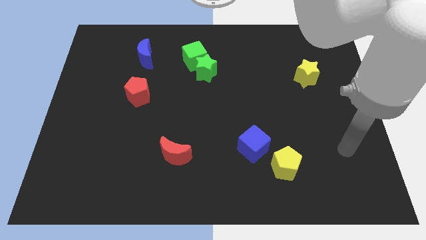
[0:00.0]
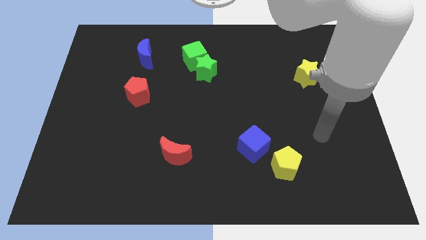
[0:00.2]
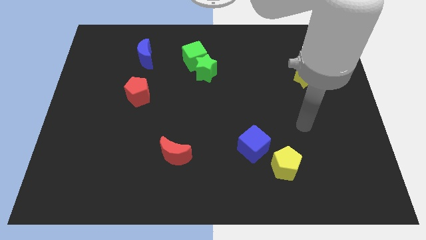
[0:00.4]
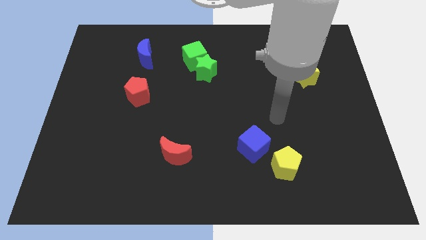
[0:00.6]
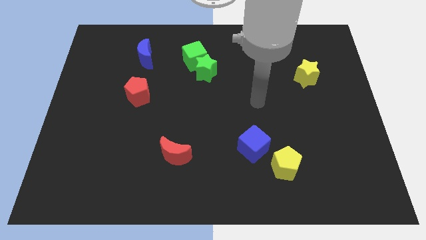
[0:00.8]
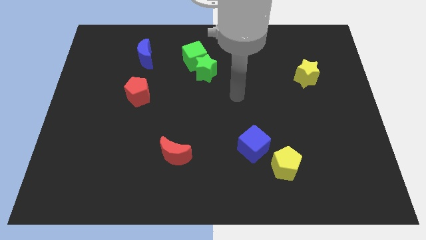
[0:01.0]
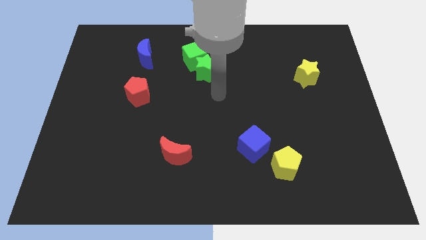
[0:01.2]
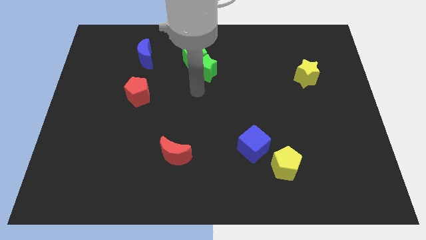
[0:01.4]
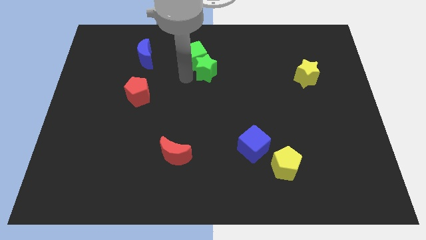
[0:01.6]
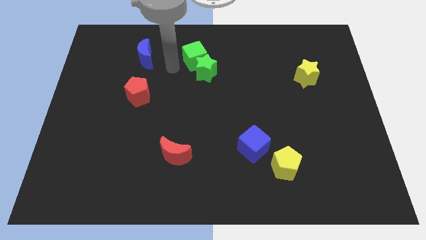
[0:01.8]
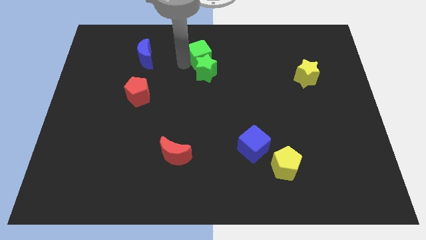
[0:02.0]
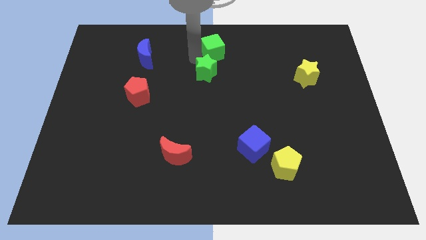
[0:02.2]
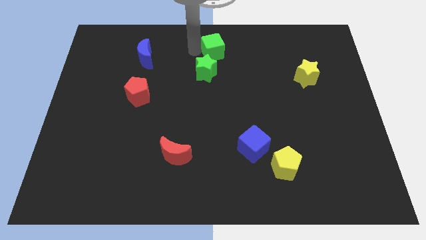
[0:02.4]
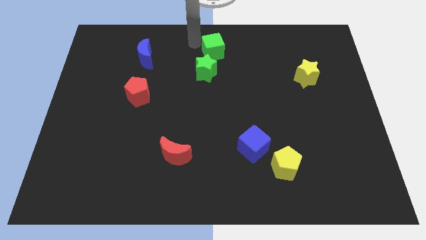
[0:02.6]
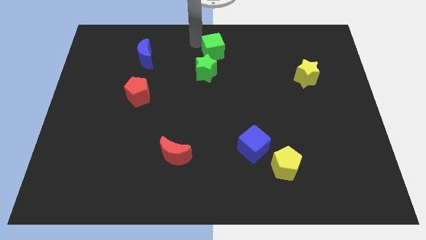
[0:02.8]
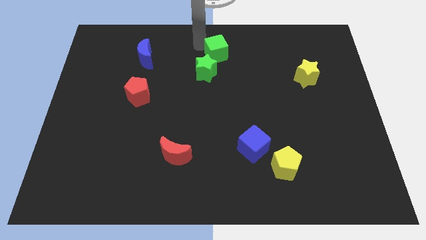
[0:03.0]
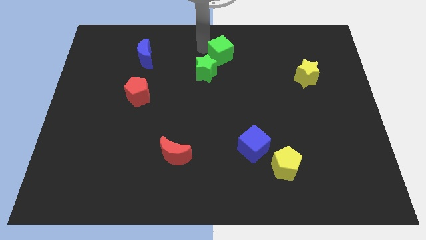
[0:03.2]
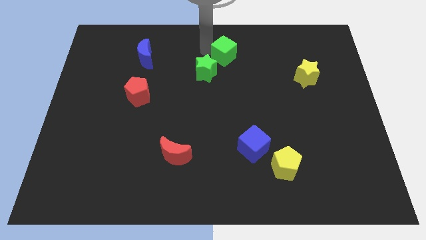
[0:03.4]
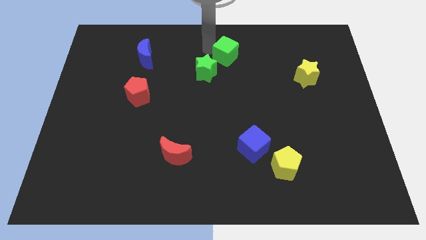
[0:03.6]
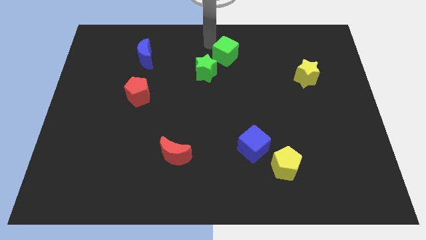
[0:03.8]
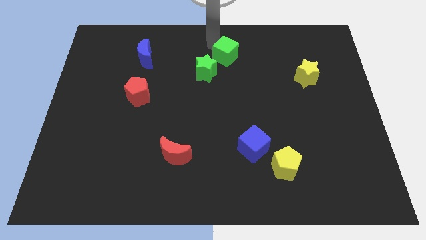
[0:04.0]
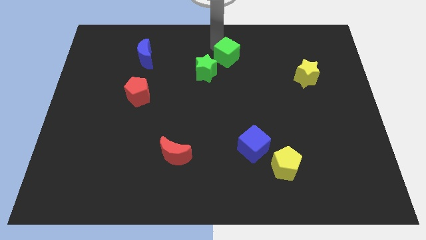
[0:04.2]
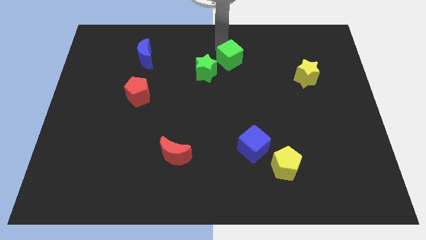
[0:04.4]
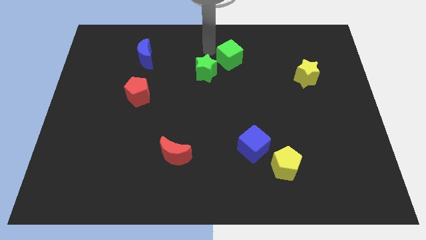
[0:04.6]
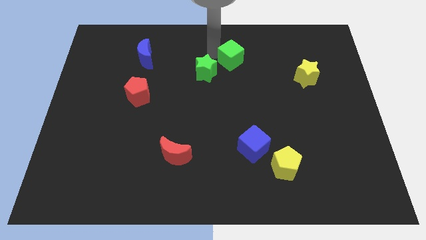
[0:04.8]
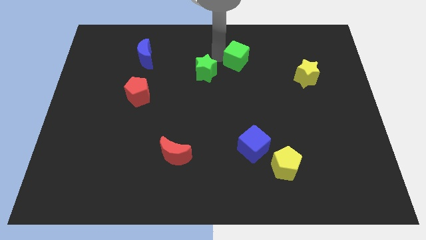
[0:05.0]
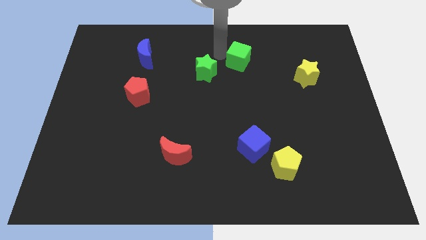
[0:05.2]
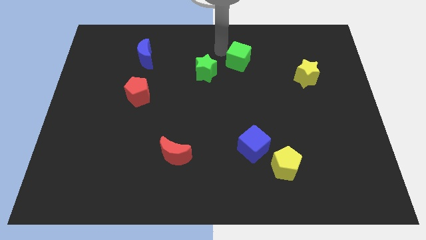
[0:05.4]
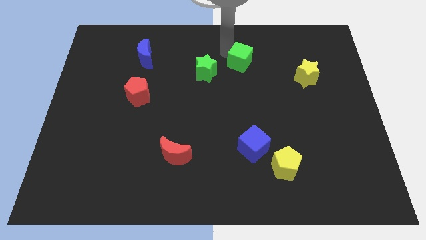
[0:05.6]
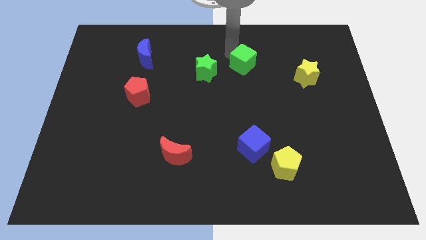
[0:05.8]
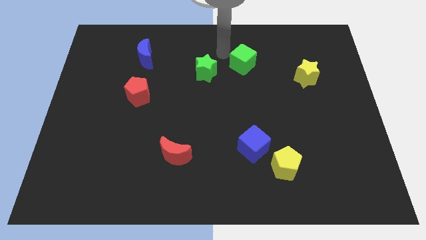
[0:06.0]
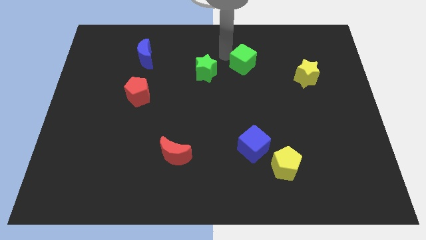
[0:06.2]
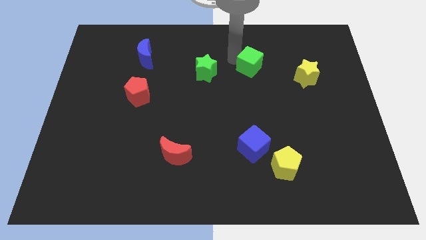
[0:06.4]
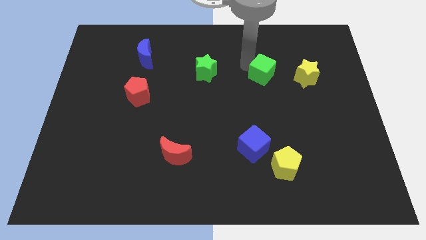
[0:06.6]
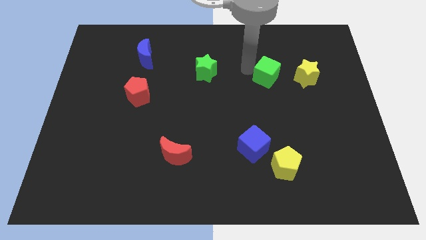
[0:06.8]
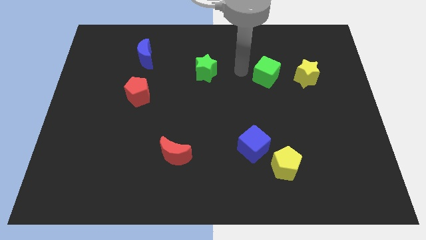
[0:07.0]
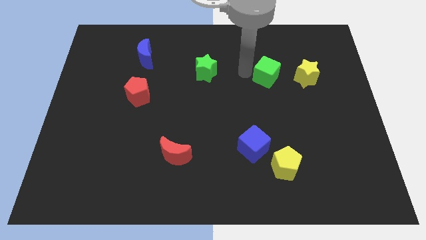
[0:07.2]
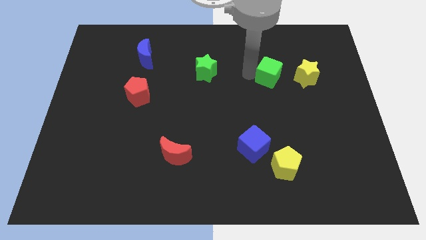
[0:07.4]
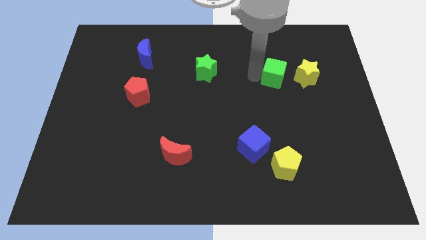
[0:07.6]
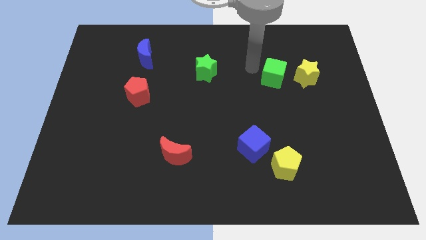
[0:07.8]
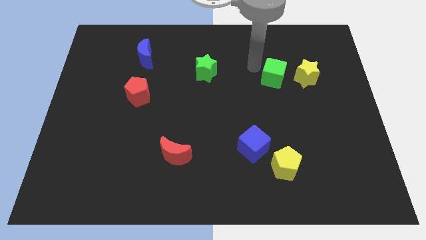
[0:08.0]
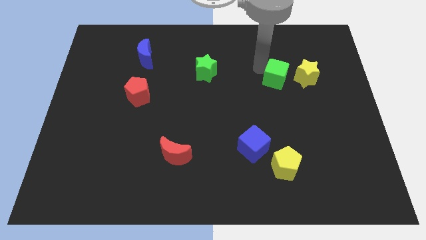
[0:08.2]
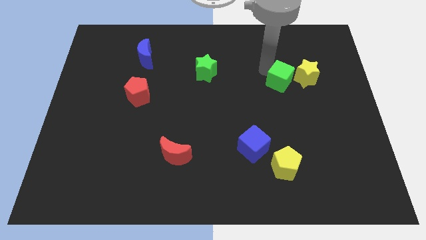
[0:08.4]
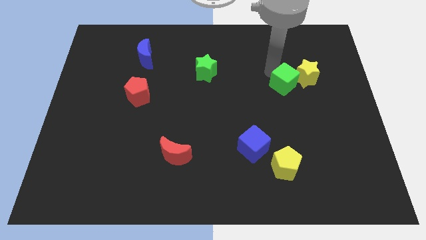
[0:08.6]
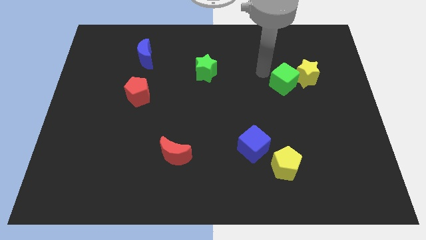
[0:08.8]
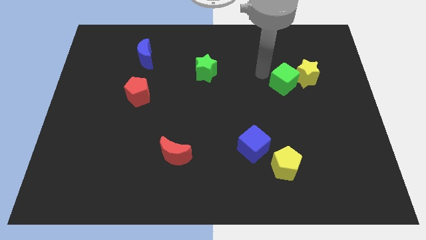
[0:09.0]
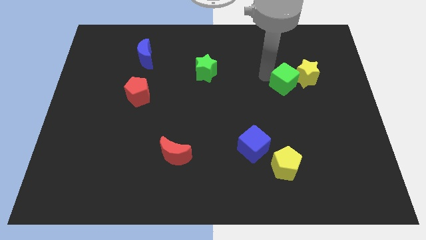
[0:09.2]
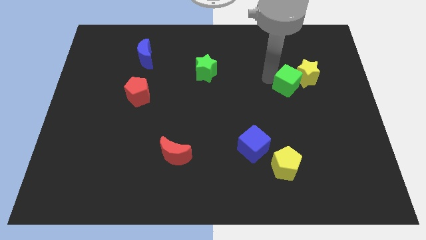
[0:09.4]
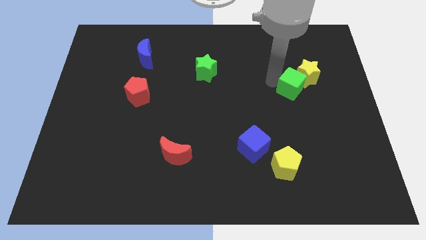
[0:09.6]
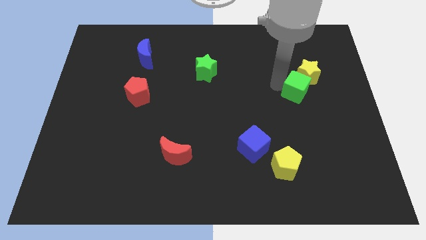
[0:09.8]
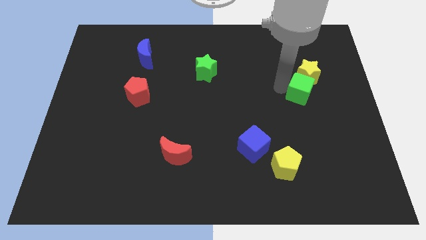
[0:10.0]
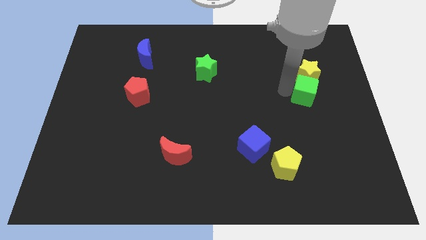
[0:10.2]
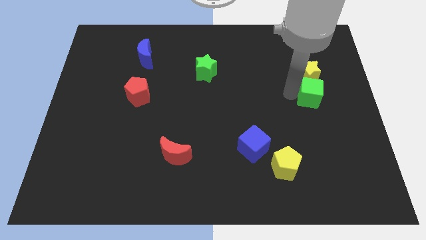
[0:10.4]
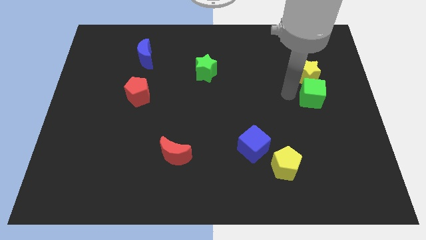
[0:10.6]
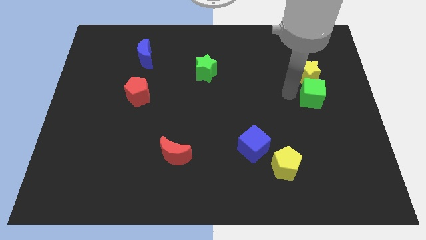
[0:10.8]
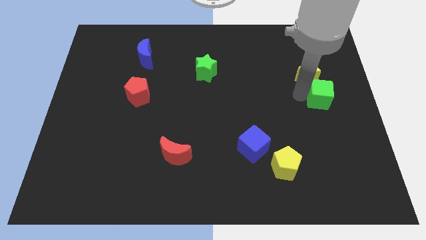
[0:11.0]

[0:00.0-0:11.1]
put the green cube to the center right

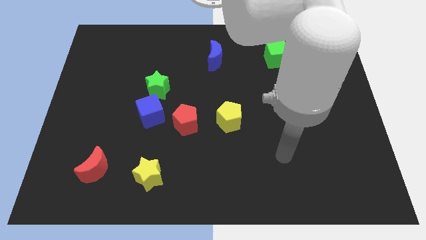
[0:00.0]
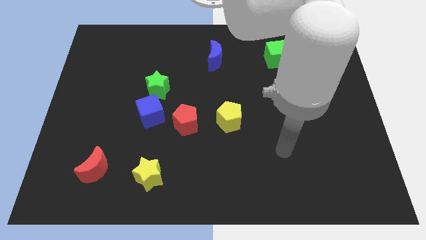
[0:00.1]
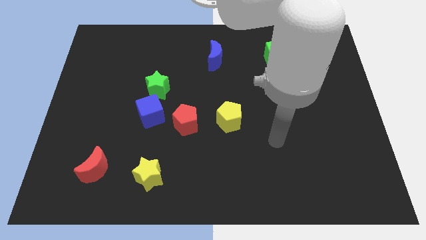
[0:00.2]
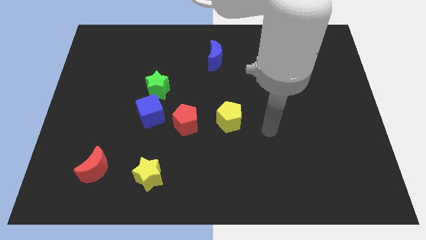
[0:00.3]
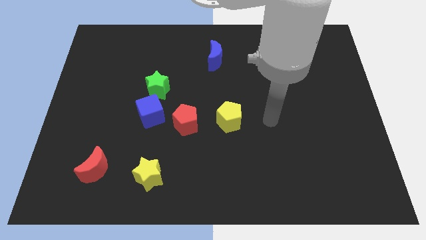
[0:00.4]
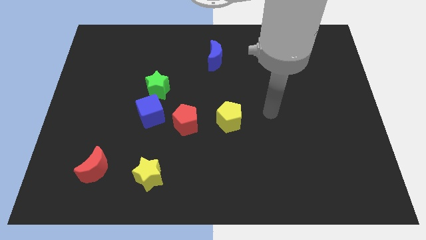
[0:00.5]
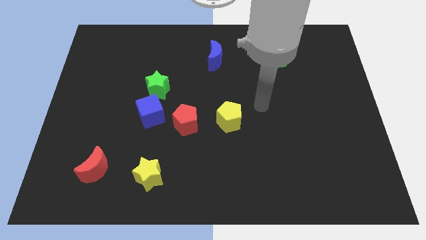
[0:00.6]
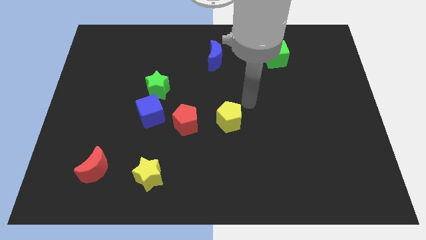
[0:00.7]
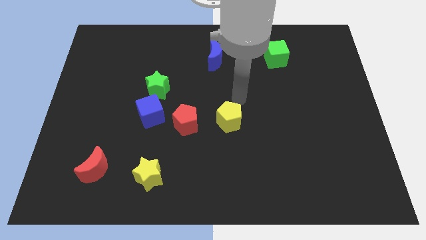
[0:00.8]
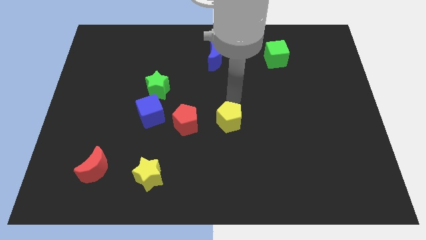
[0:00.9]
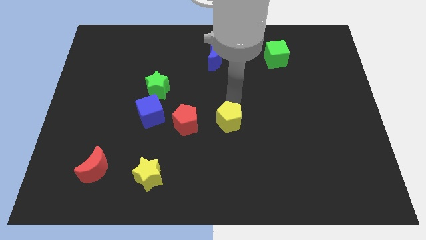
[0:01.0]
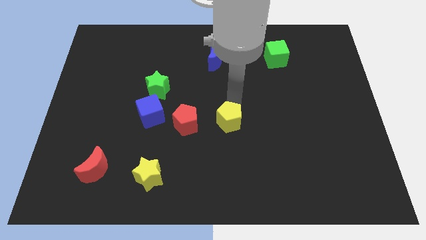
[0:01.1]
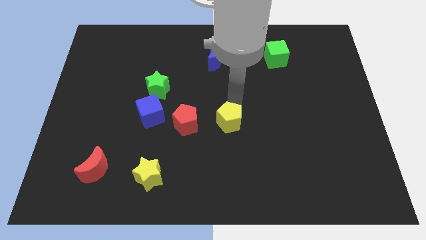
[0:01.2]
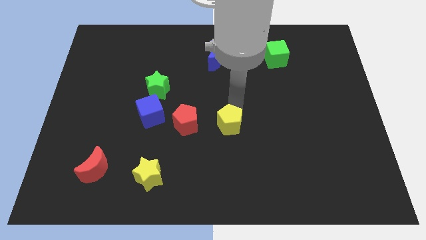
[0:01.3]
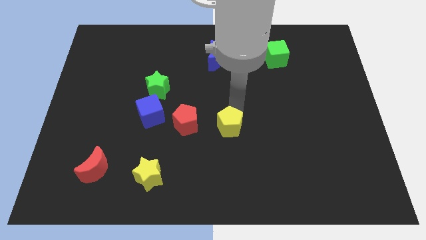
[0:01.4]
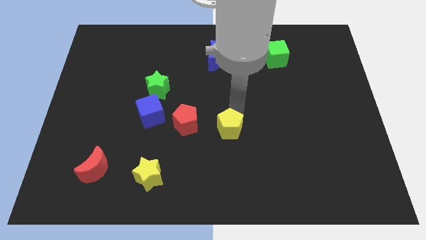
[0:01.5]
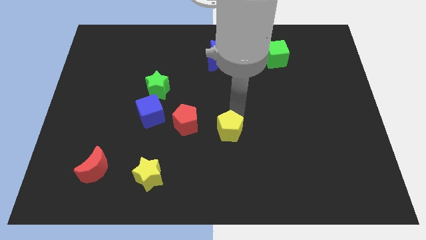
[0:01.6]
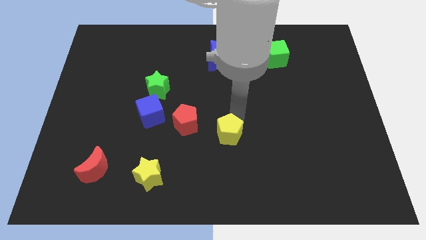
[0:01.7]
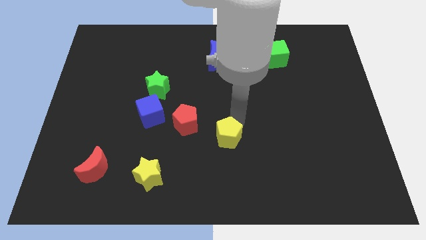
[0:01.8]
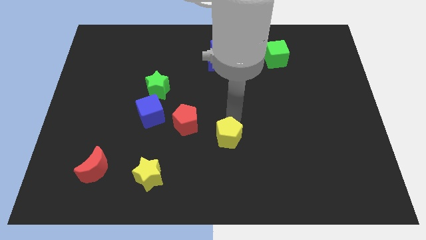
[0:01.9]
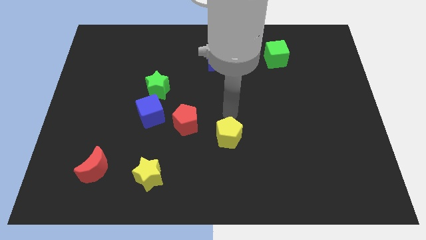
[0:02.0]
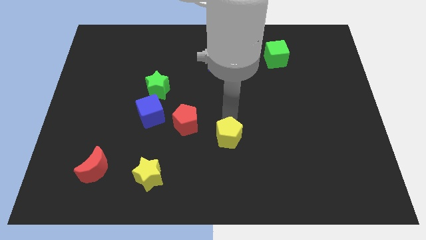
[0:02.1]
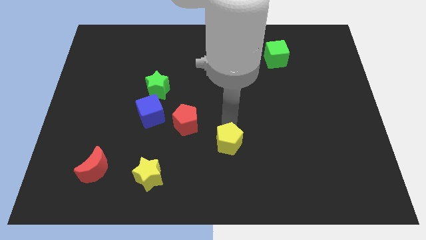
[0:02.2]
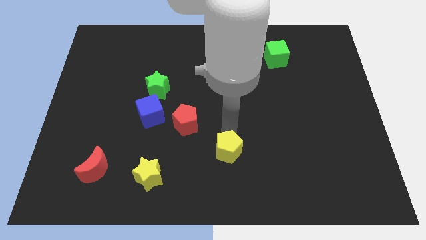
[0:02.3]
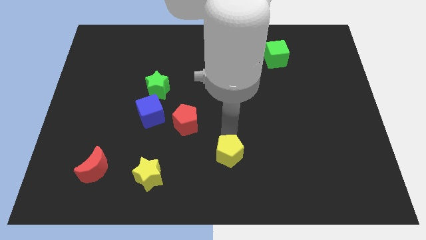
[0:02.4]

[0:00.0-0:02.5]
put the yellow pentagon to the bottom

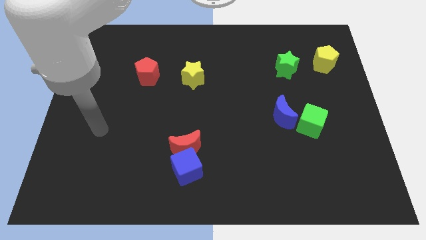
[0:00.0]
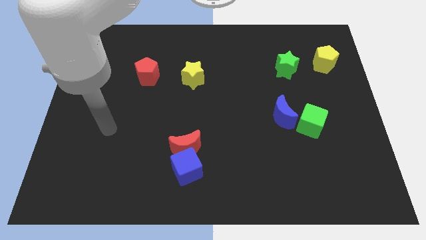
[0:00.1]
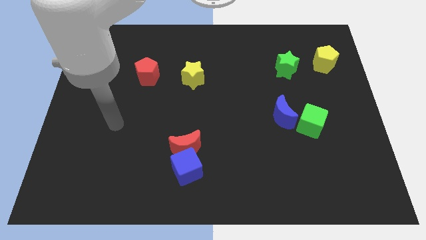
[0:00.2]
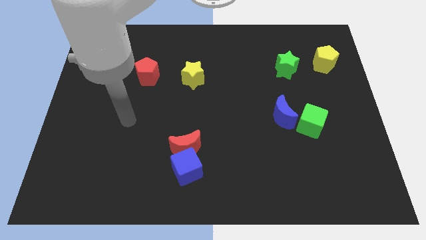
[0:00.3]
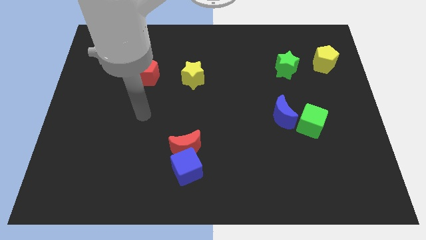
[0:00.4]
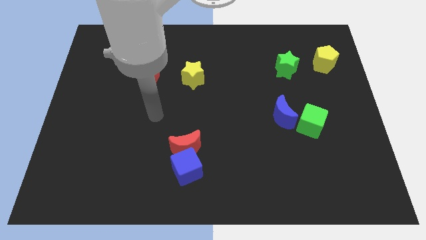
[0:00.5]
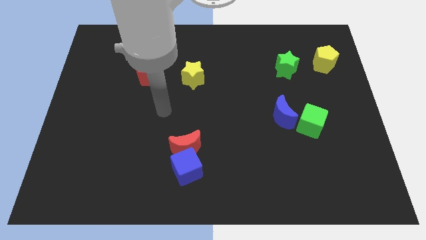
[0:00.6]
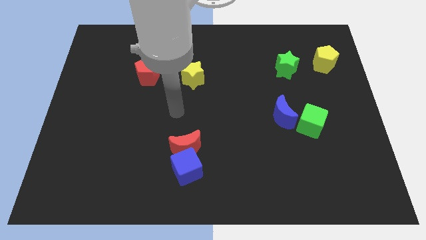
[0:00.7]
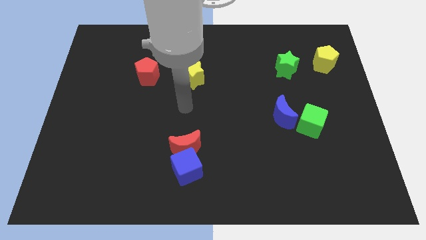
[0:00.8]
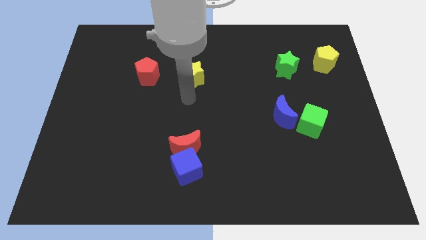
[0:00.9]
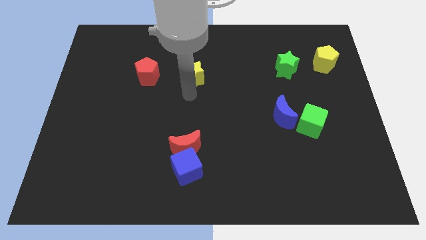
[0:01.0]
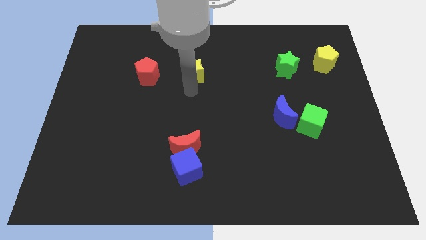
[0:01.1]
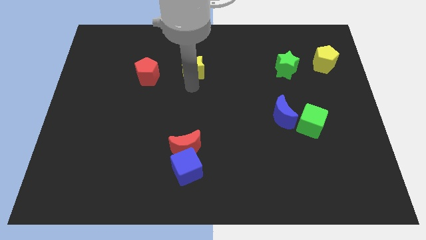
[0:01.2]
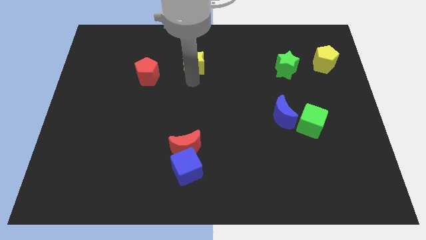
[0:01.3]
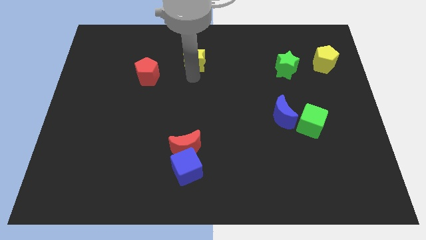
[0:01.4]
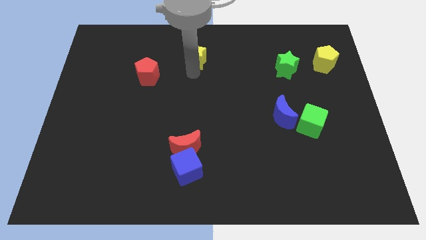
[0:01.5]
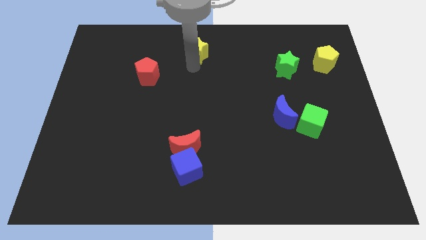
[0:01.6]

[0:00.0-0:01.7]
slide the yellow star to the top side
